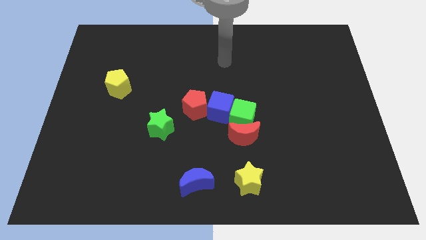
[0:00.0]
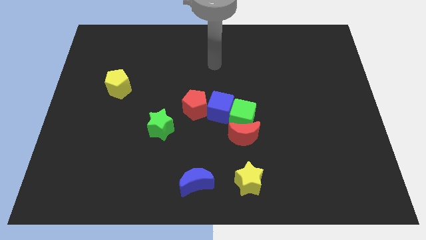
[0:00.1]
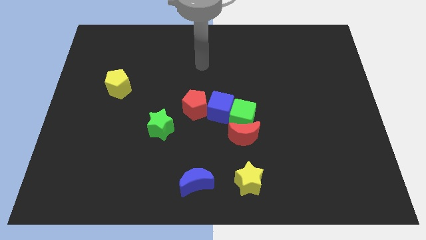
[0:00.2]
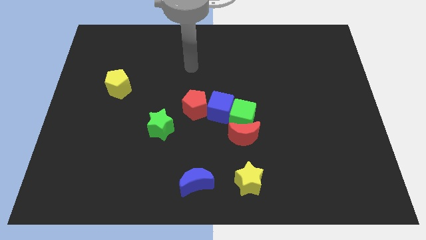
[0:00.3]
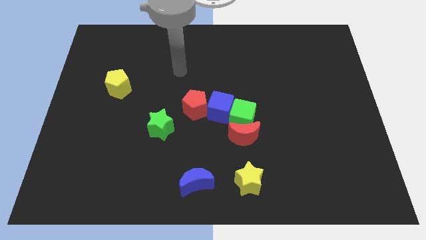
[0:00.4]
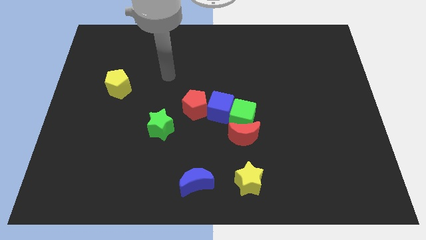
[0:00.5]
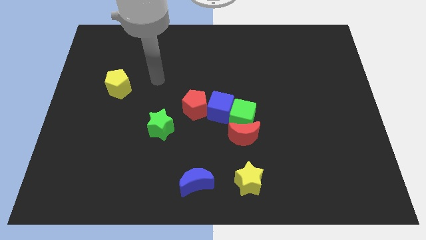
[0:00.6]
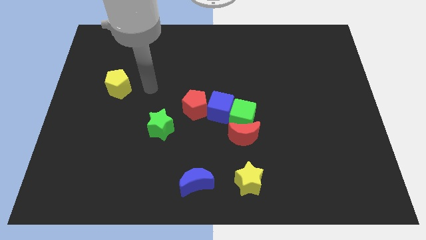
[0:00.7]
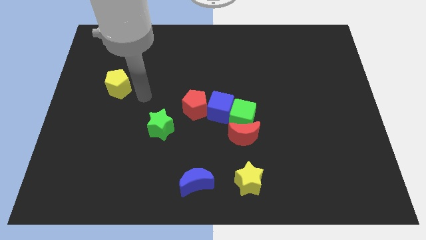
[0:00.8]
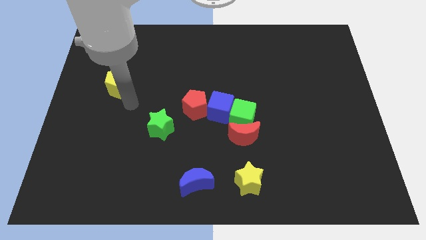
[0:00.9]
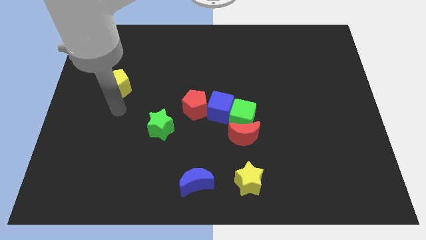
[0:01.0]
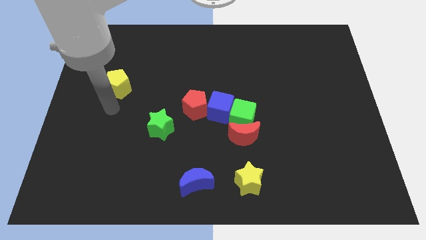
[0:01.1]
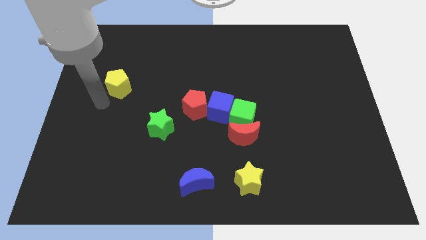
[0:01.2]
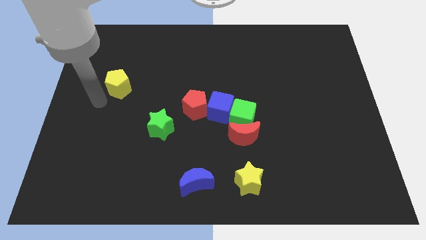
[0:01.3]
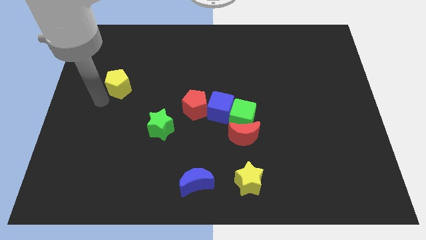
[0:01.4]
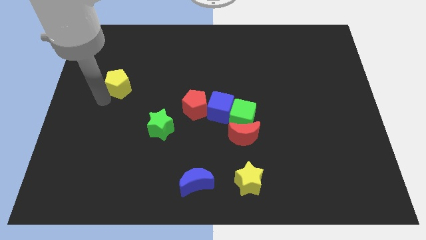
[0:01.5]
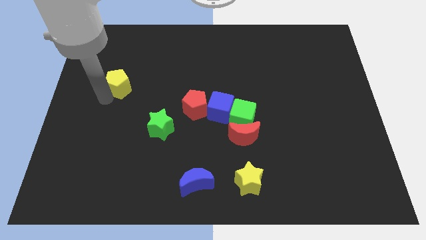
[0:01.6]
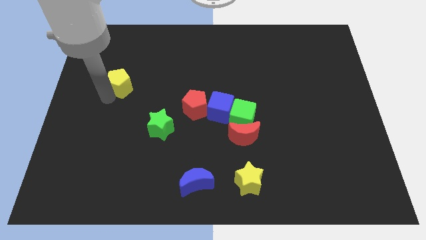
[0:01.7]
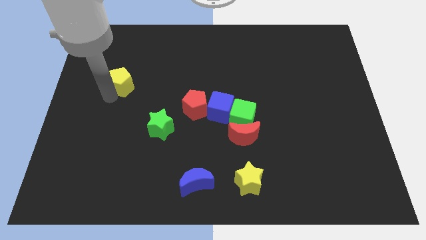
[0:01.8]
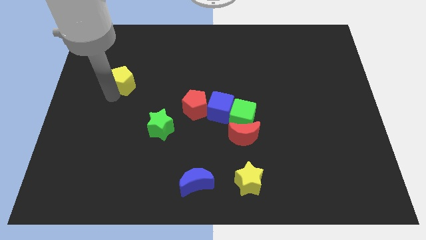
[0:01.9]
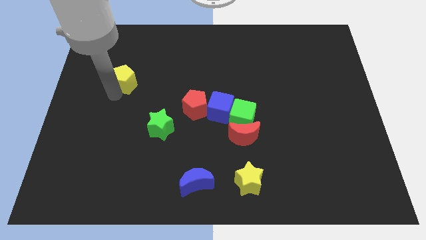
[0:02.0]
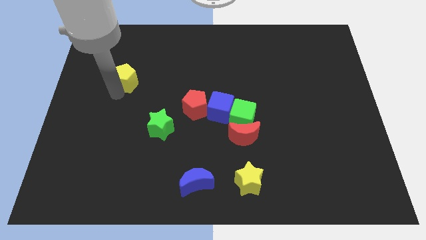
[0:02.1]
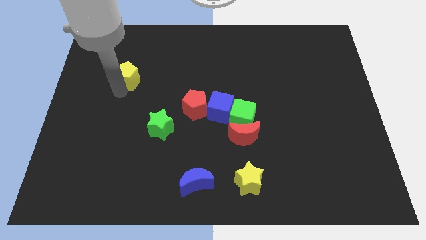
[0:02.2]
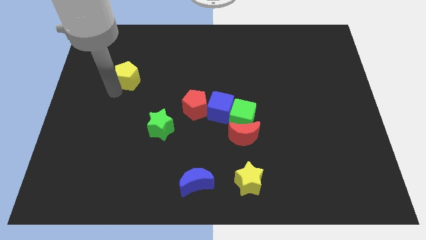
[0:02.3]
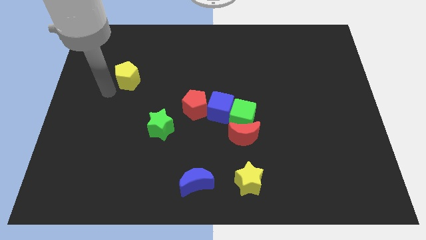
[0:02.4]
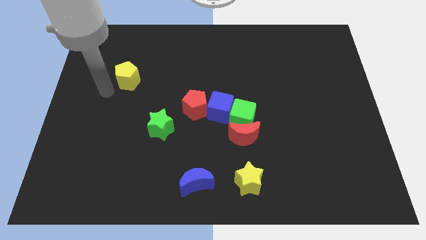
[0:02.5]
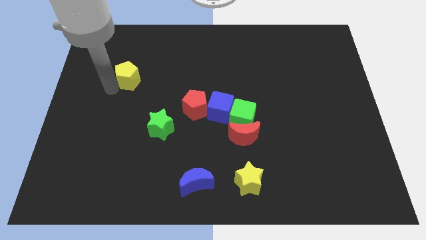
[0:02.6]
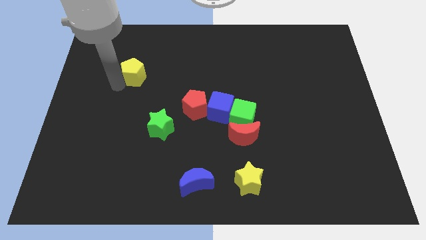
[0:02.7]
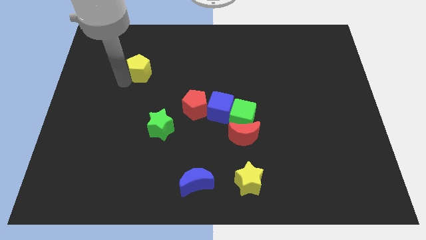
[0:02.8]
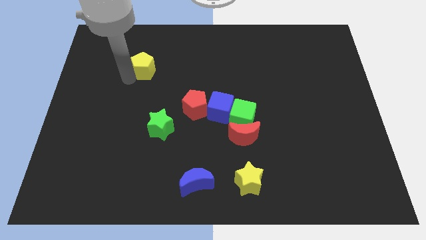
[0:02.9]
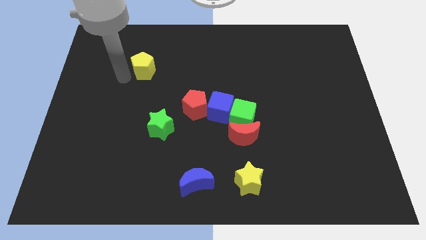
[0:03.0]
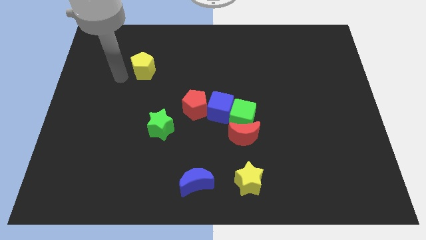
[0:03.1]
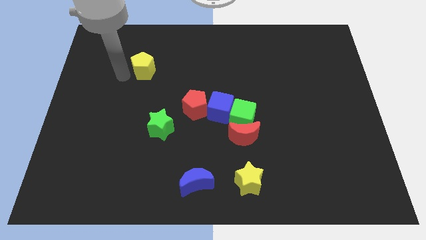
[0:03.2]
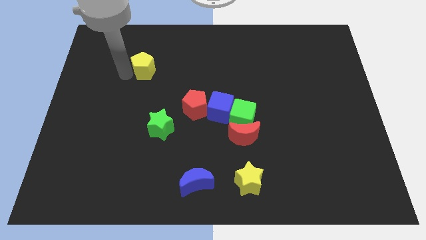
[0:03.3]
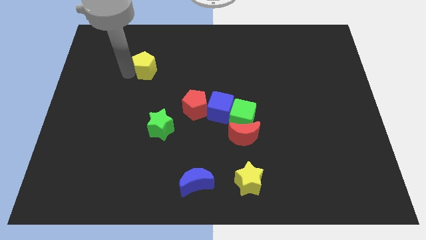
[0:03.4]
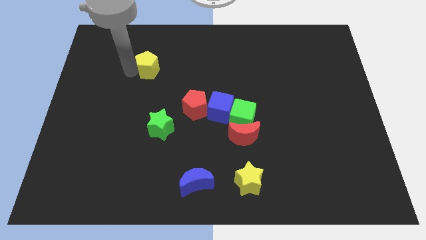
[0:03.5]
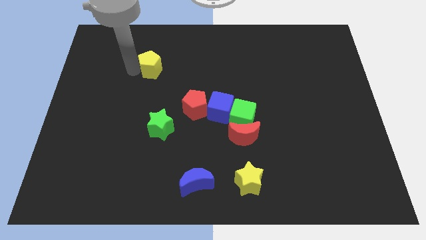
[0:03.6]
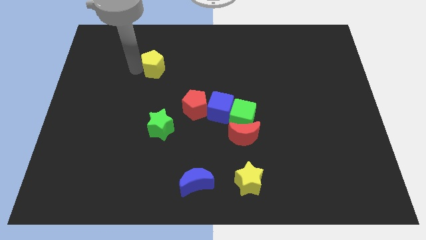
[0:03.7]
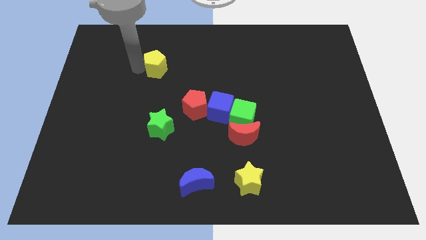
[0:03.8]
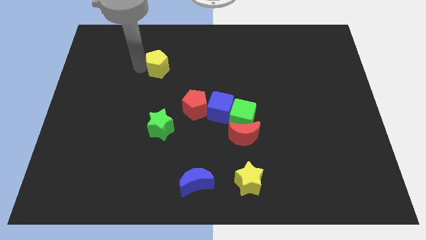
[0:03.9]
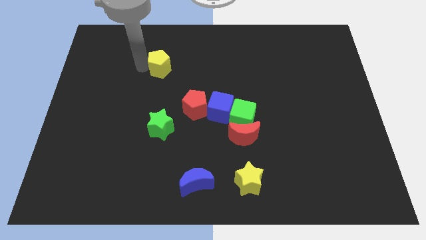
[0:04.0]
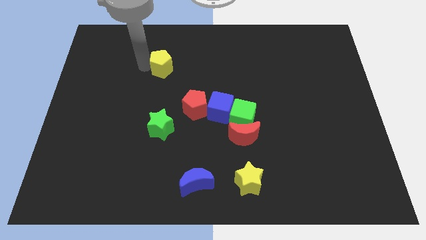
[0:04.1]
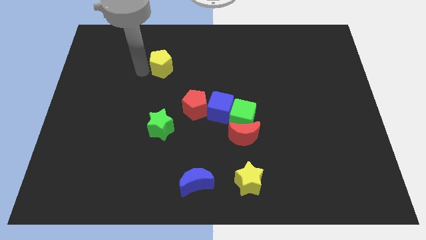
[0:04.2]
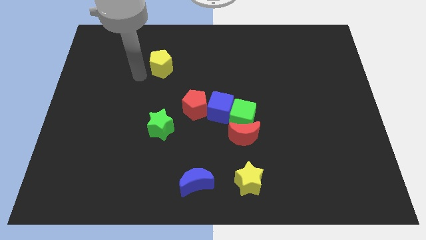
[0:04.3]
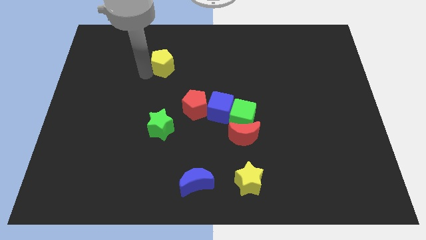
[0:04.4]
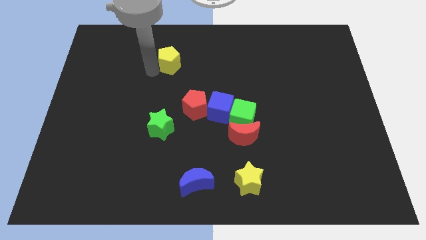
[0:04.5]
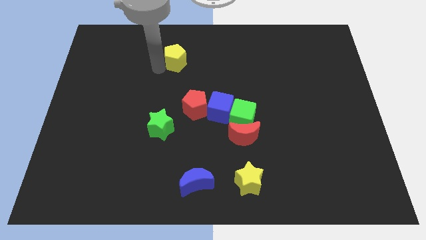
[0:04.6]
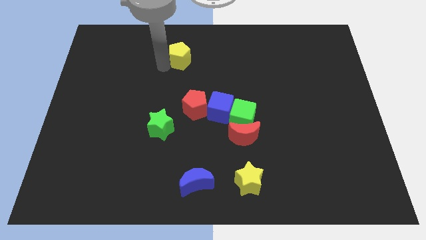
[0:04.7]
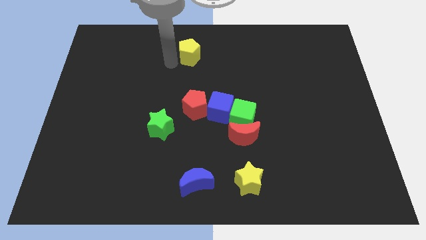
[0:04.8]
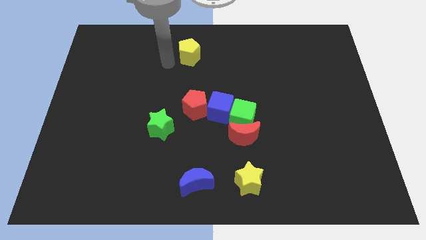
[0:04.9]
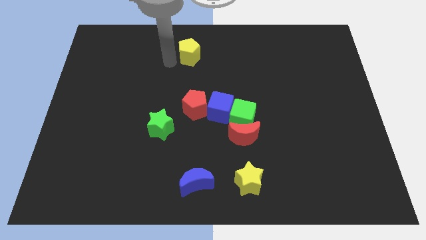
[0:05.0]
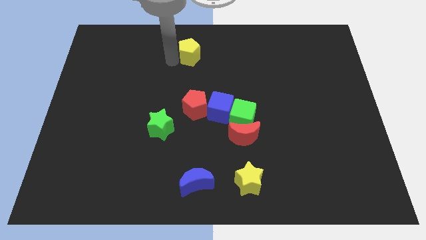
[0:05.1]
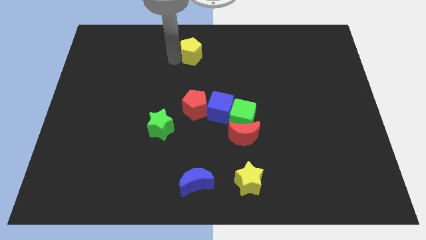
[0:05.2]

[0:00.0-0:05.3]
move the yellow pentagon to the towards your base

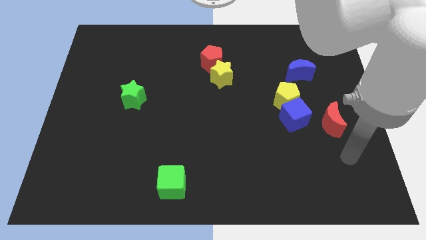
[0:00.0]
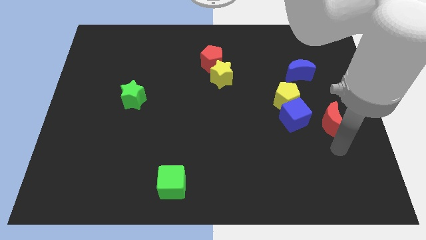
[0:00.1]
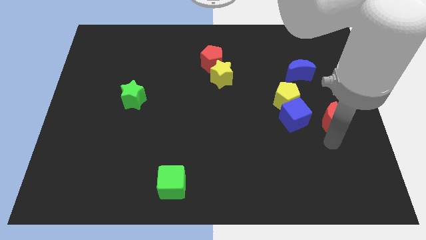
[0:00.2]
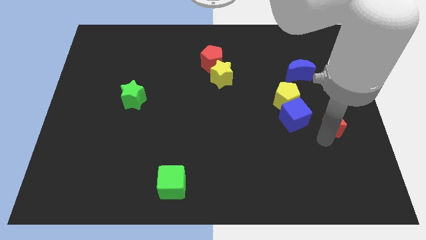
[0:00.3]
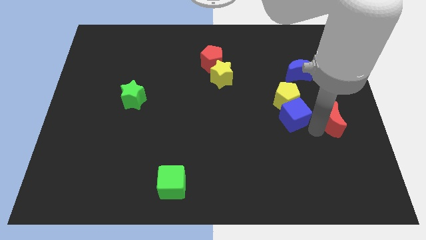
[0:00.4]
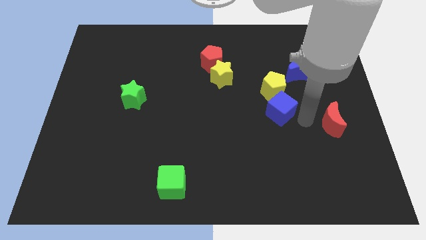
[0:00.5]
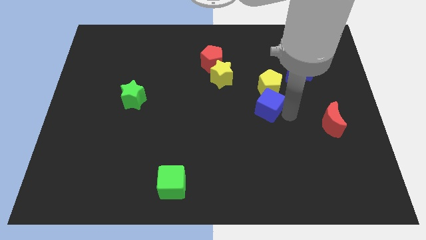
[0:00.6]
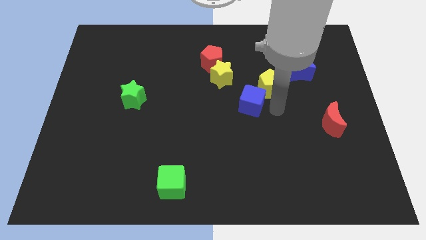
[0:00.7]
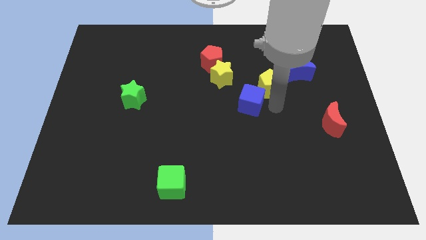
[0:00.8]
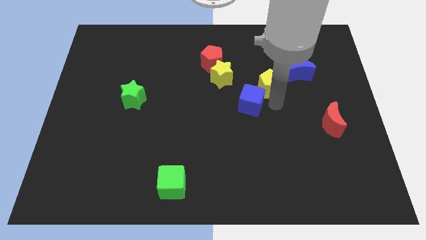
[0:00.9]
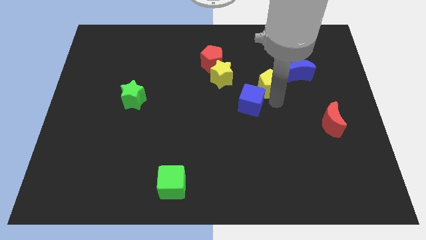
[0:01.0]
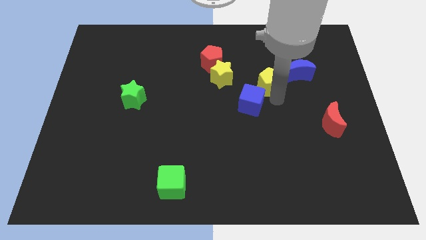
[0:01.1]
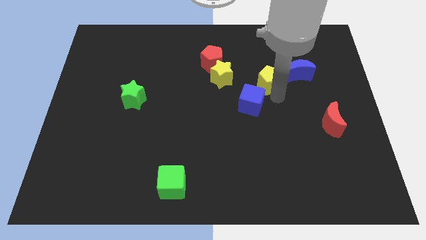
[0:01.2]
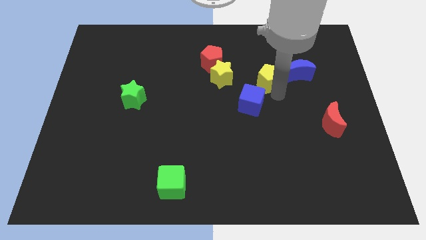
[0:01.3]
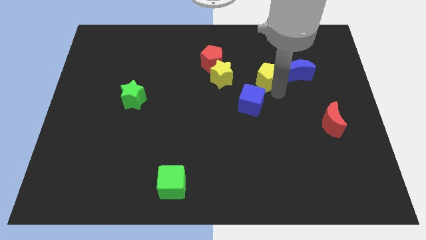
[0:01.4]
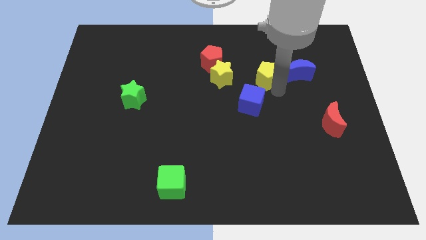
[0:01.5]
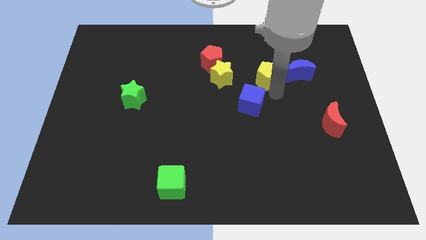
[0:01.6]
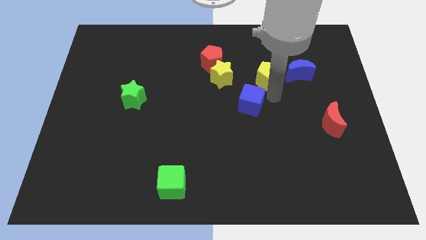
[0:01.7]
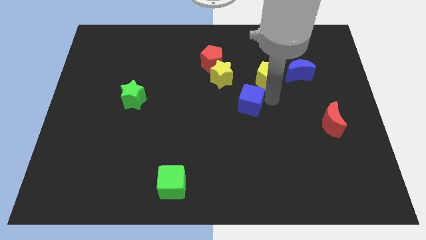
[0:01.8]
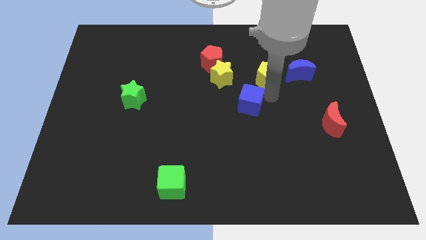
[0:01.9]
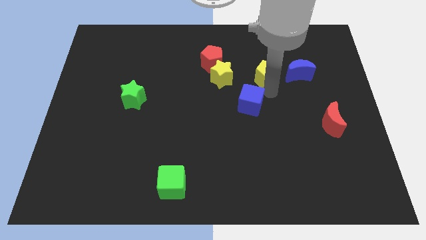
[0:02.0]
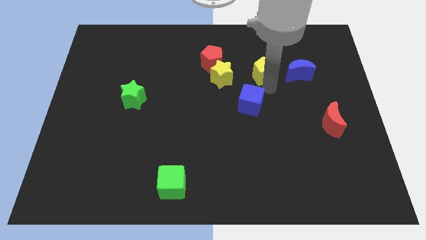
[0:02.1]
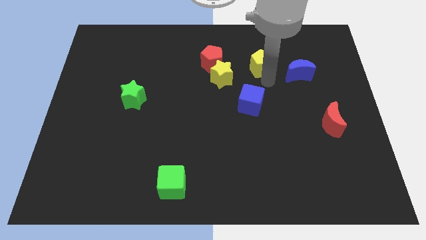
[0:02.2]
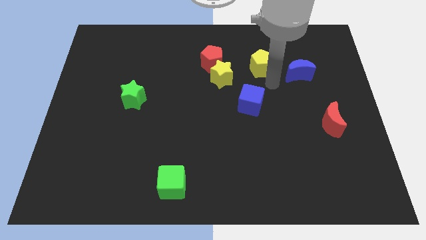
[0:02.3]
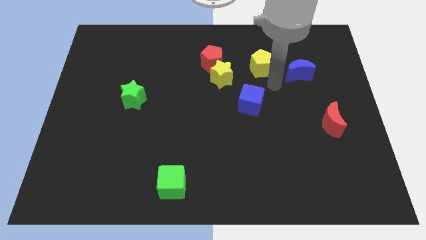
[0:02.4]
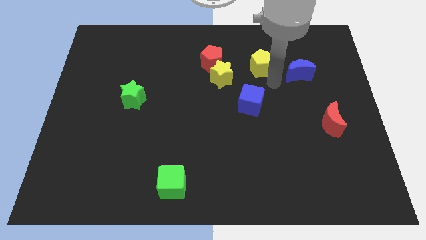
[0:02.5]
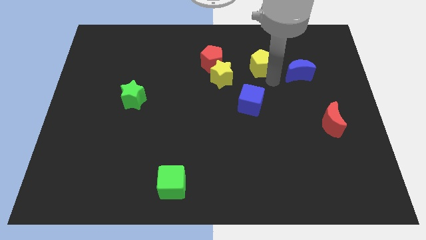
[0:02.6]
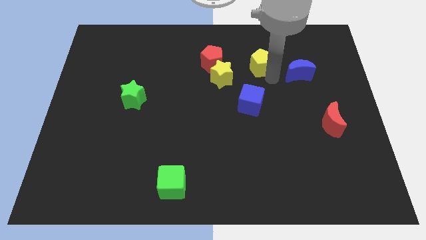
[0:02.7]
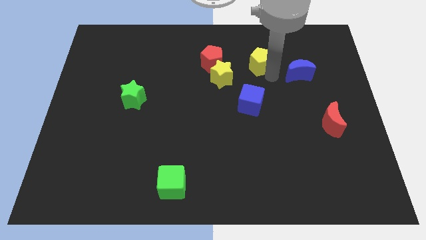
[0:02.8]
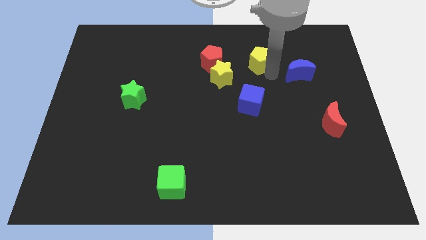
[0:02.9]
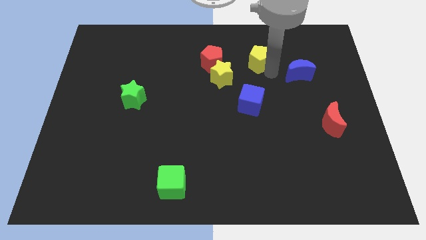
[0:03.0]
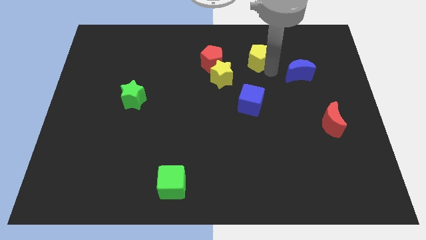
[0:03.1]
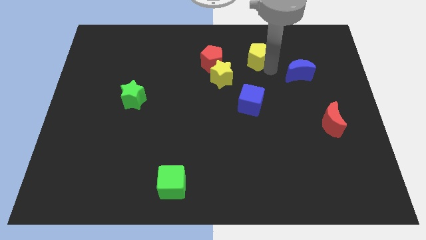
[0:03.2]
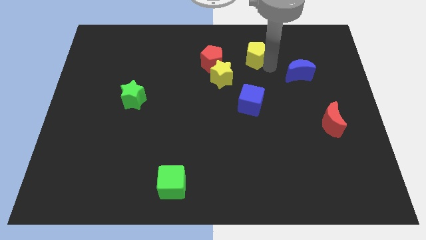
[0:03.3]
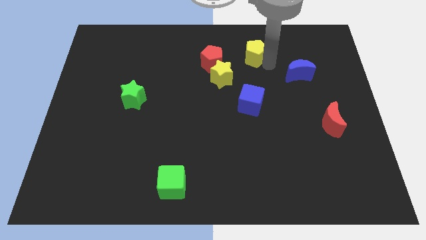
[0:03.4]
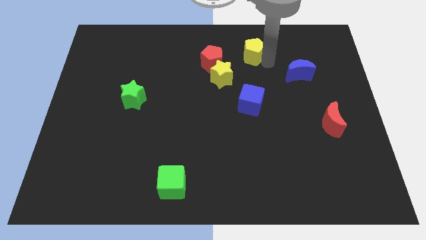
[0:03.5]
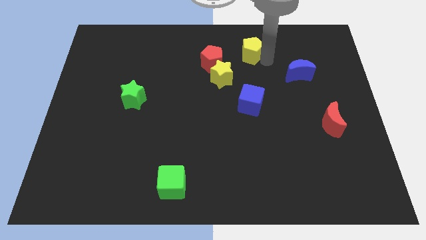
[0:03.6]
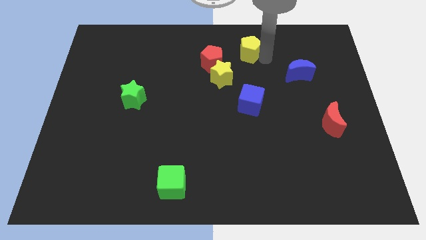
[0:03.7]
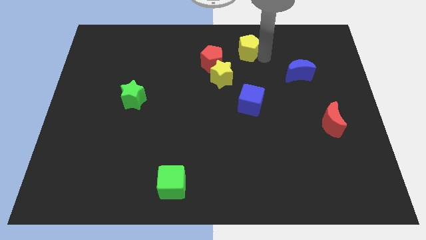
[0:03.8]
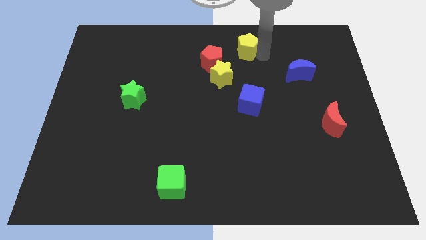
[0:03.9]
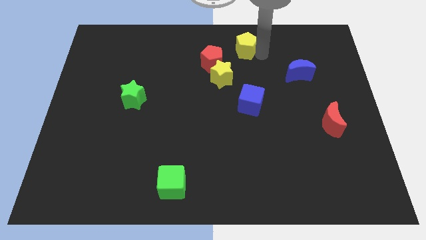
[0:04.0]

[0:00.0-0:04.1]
push the yellow pentagon to the top side
